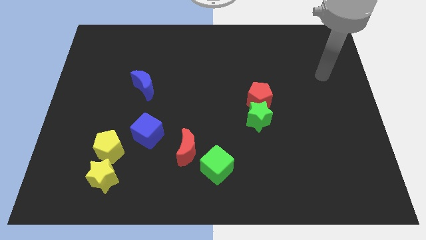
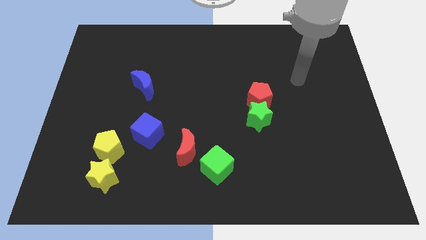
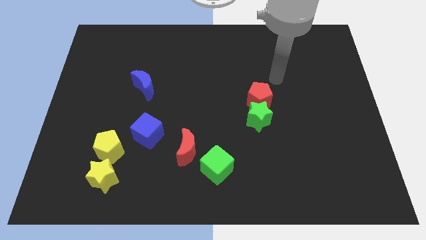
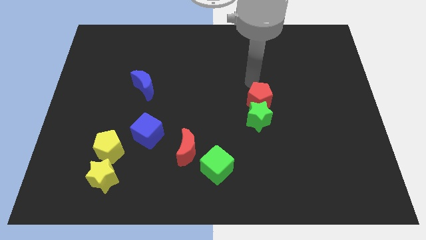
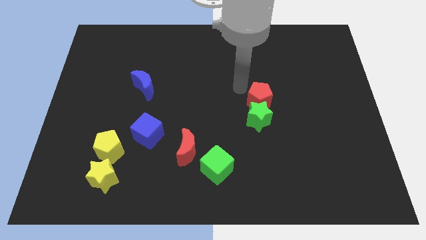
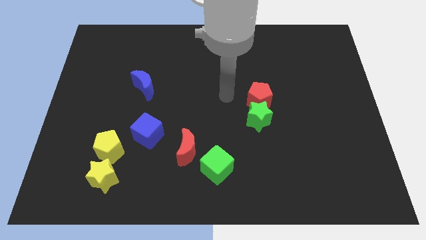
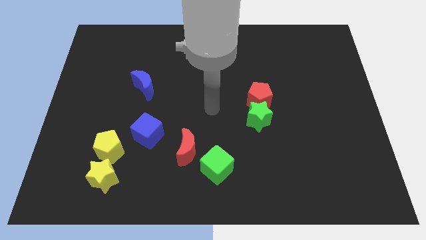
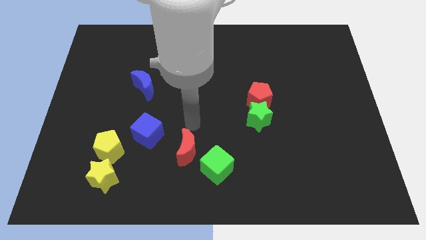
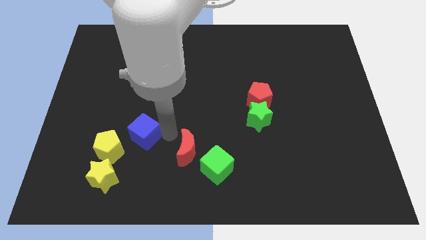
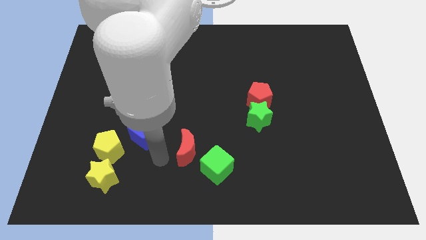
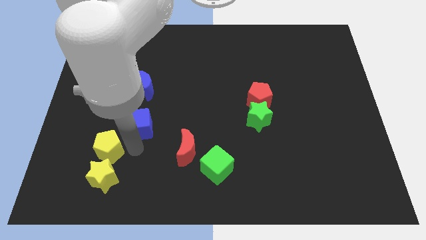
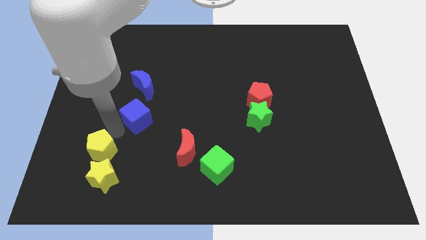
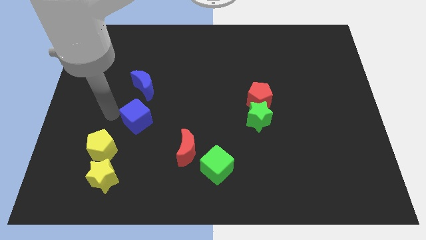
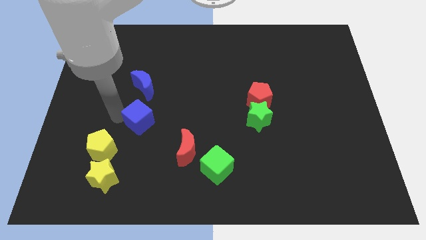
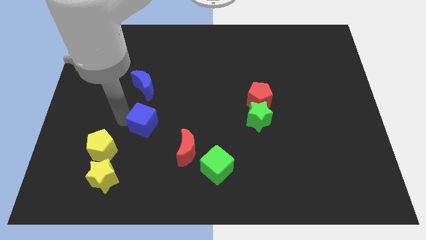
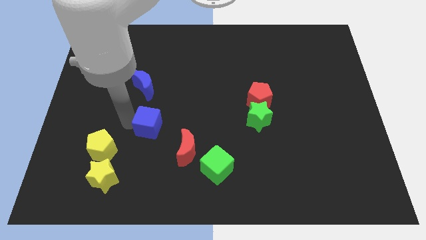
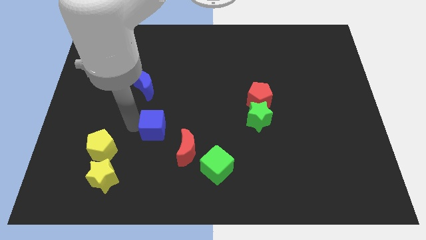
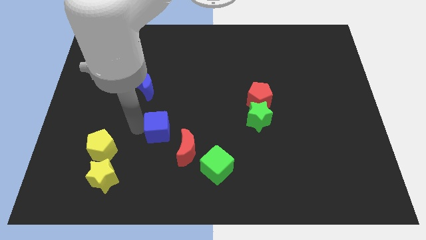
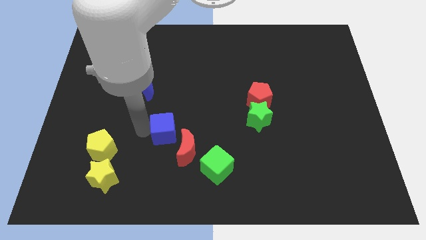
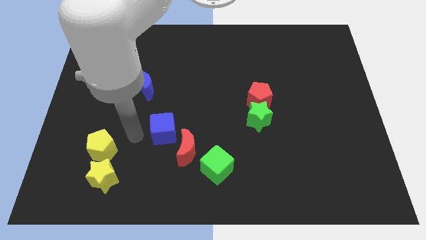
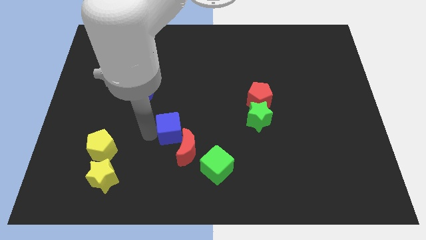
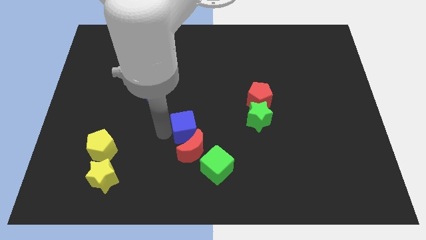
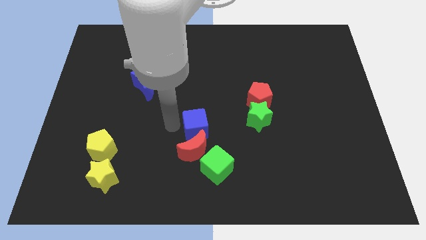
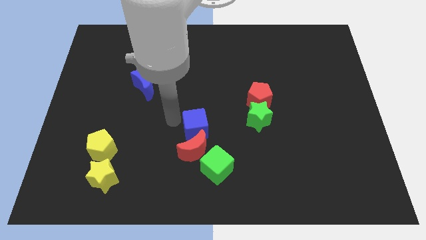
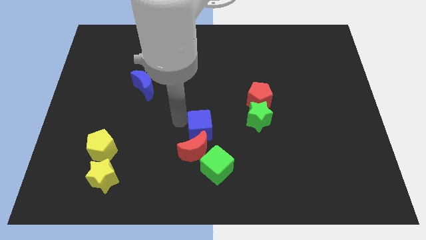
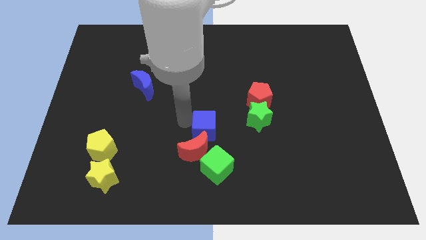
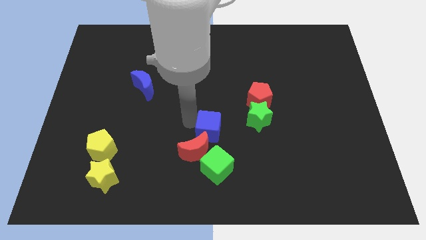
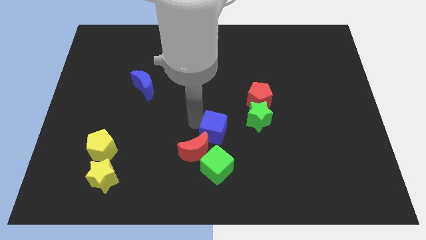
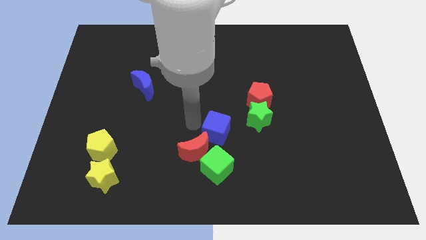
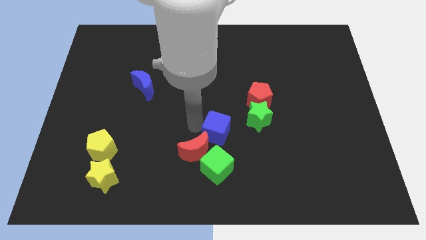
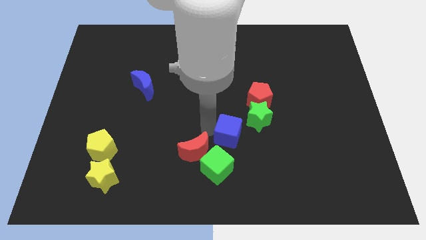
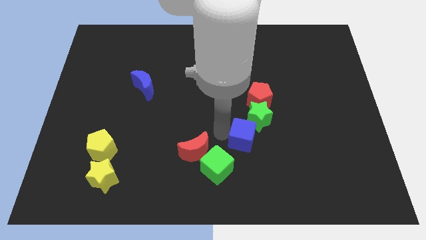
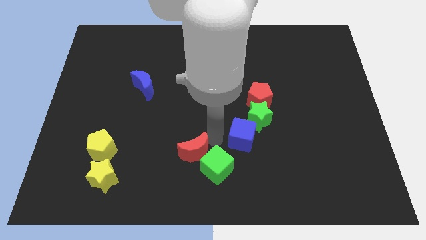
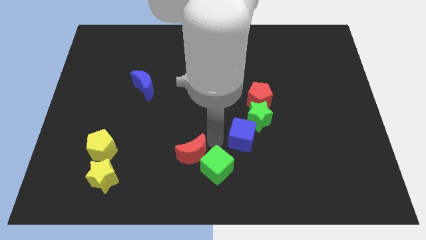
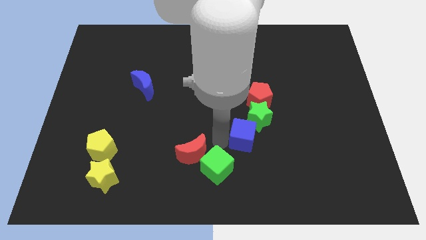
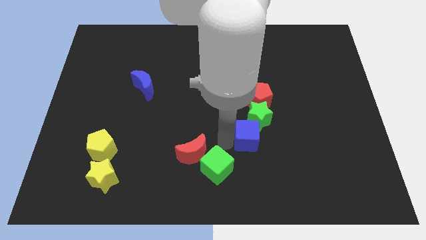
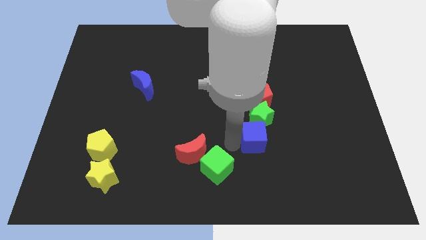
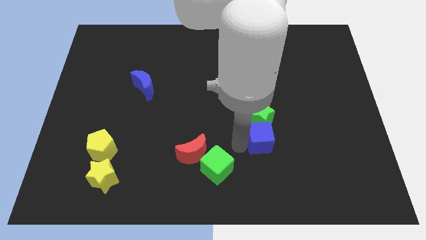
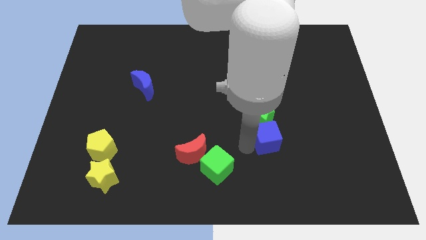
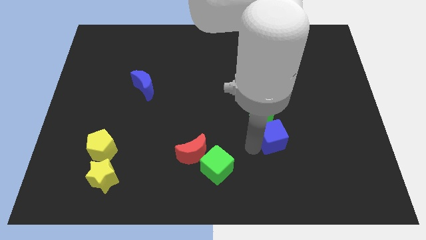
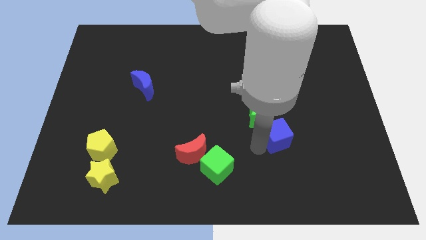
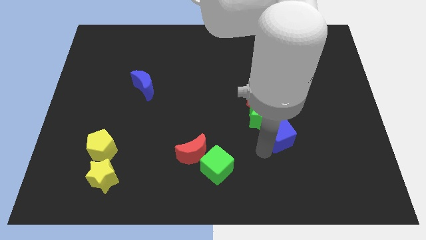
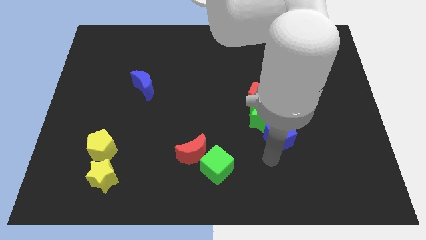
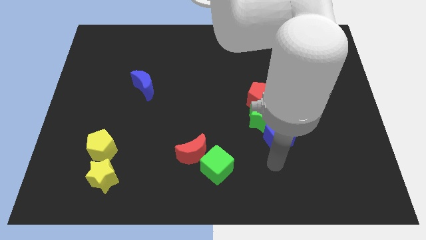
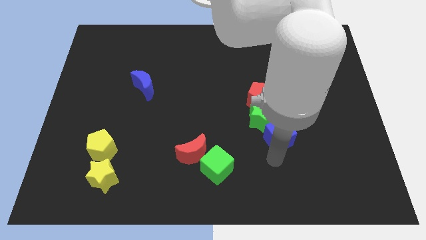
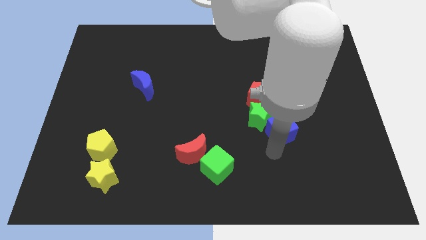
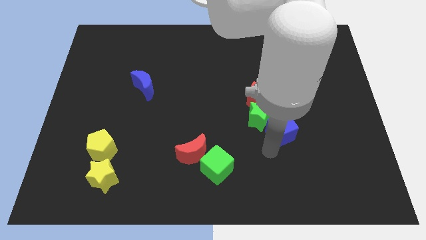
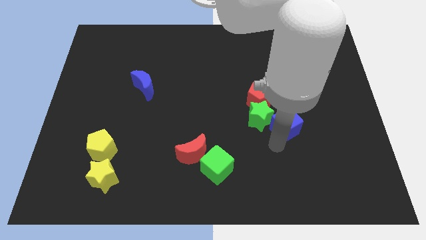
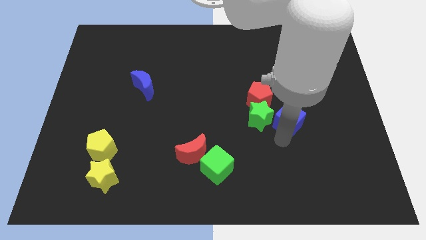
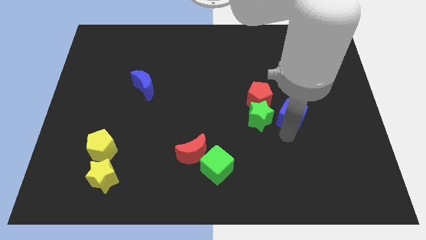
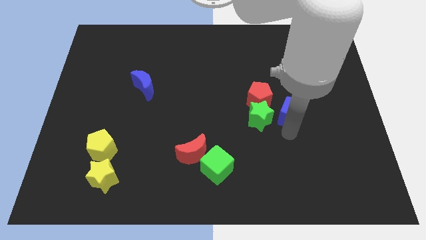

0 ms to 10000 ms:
slide the blue cube right of the red pentagon

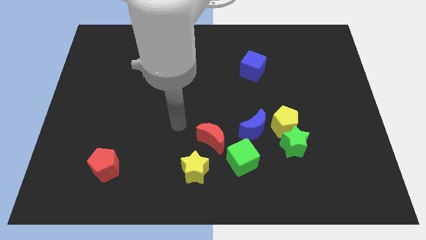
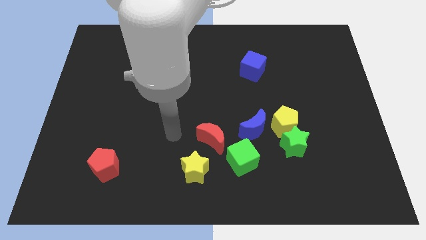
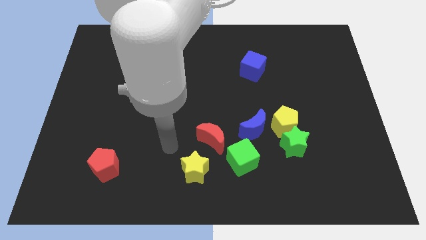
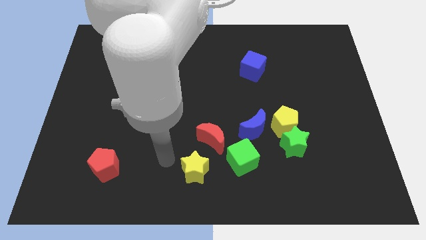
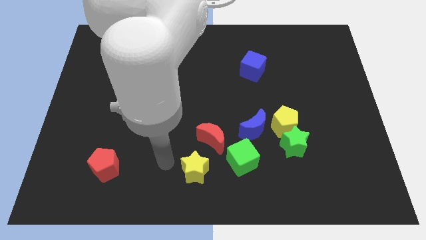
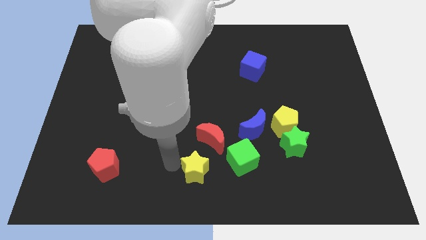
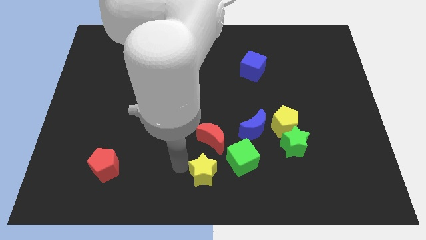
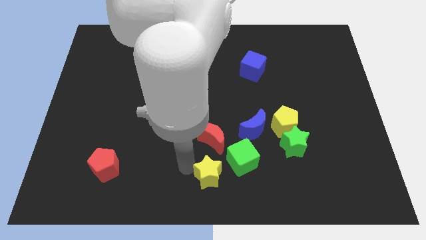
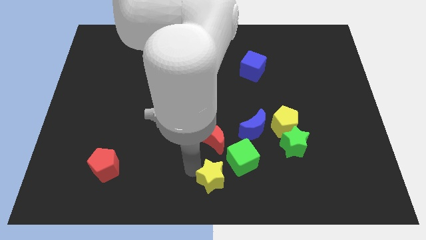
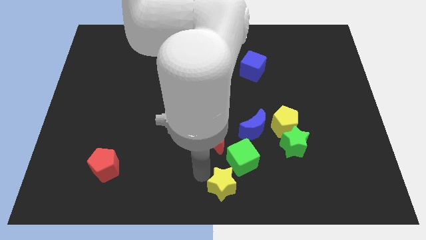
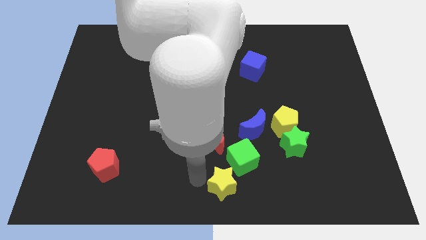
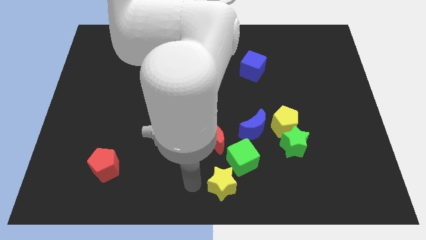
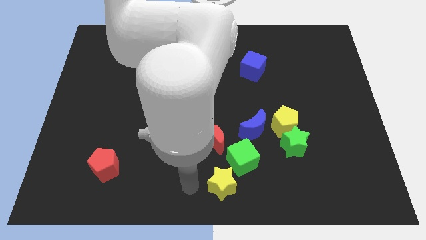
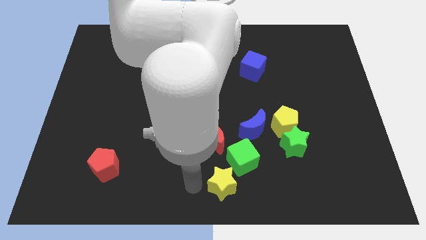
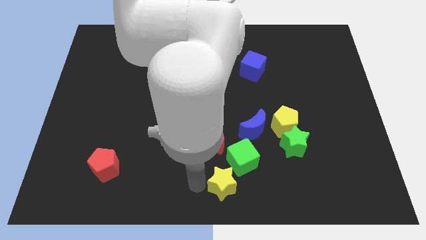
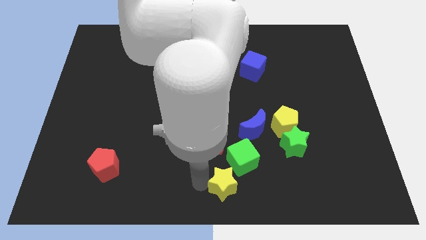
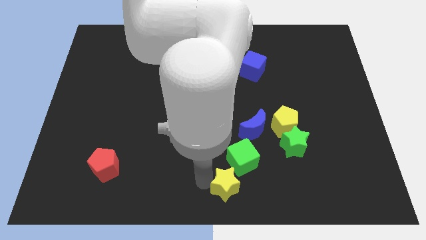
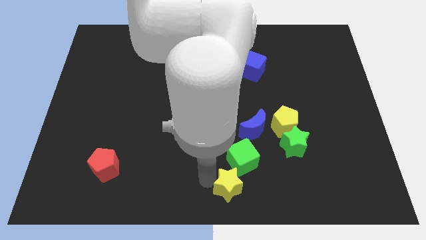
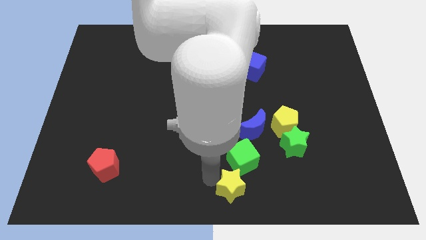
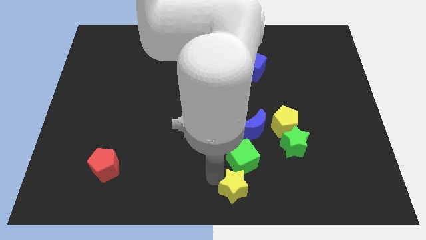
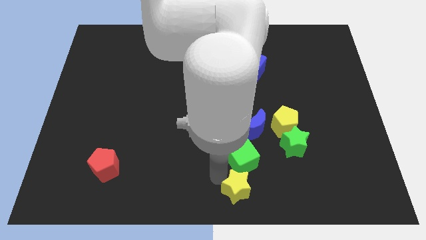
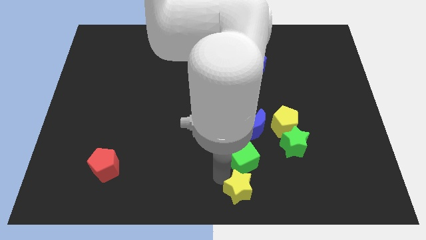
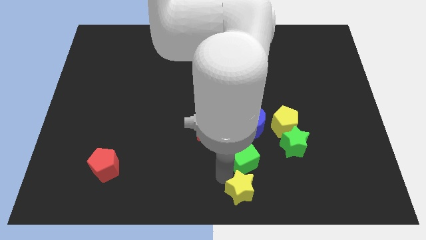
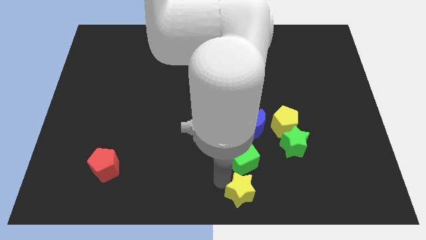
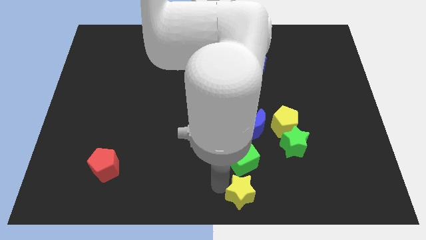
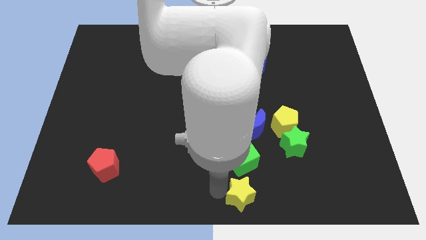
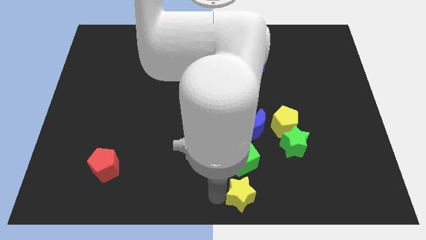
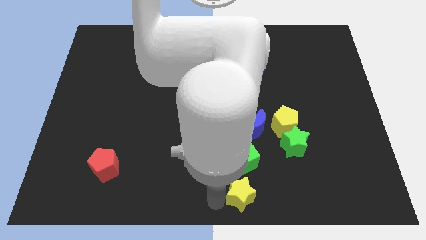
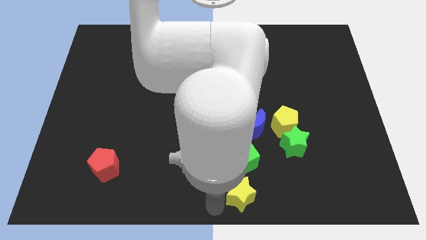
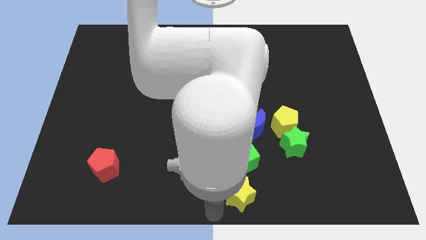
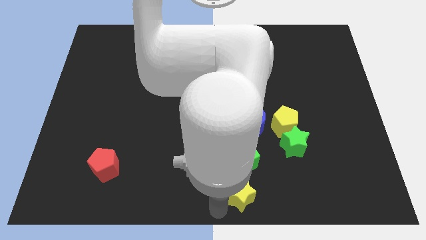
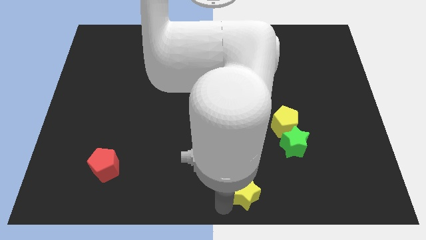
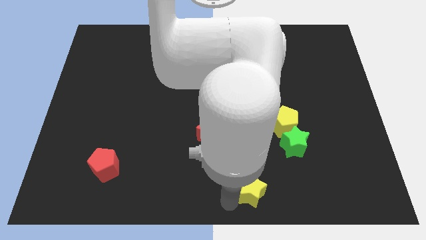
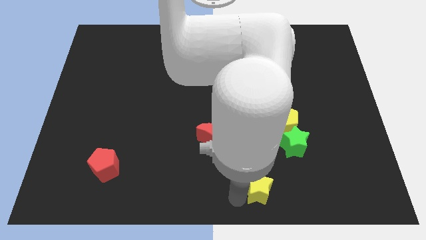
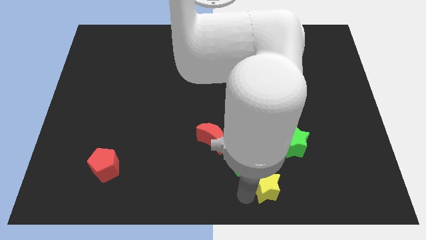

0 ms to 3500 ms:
move the yellow star diagonally down and to the left of the green star
